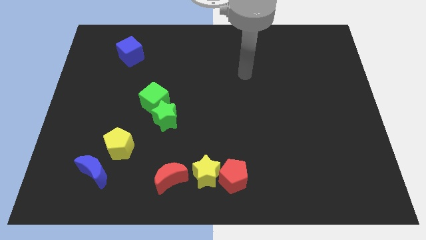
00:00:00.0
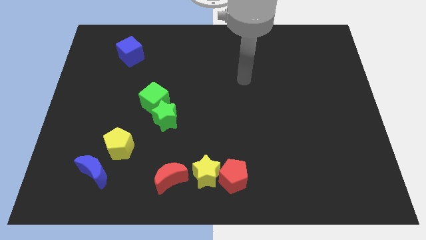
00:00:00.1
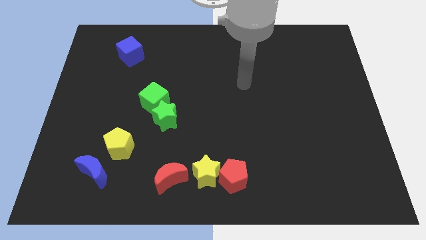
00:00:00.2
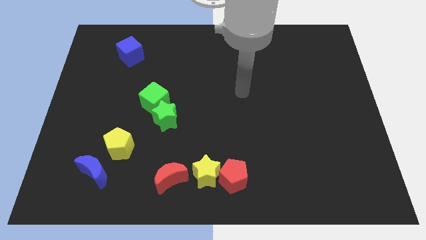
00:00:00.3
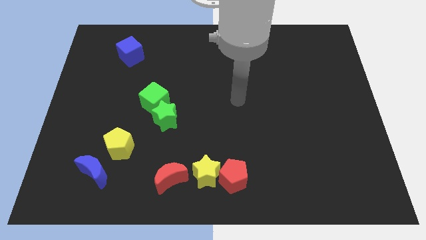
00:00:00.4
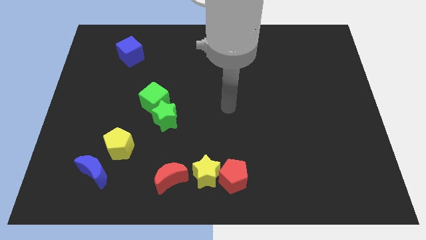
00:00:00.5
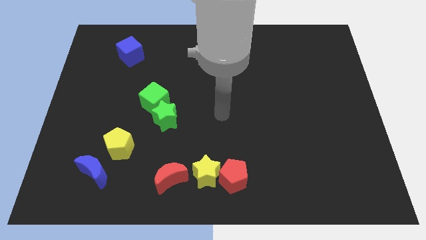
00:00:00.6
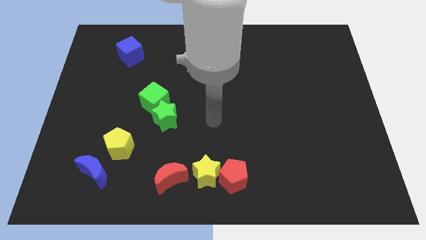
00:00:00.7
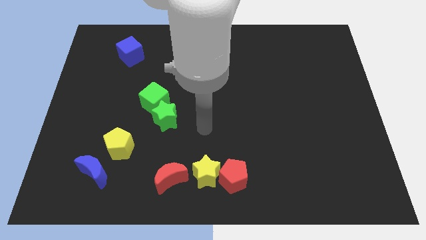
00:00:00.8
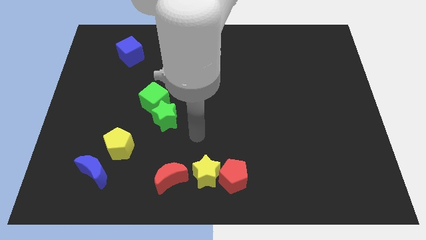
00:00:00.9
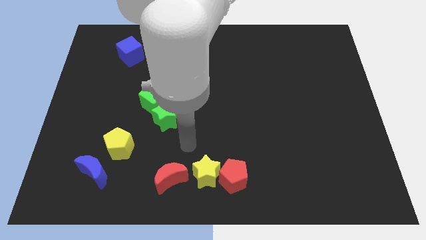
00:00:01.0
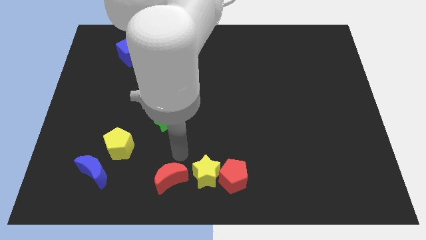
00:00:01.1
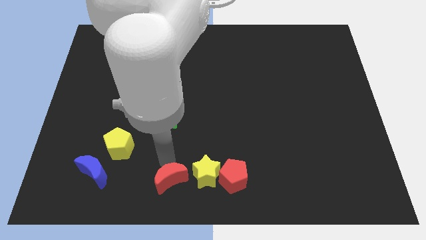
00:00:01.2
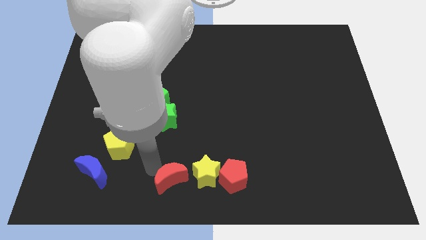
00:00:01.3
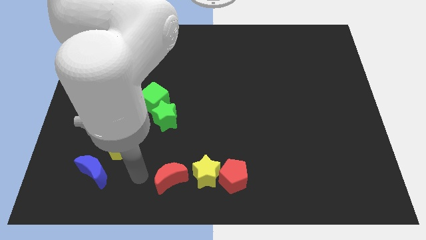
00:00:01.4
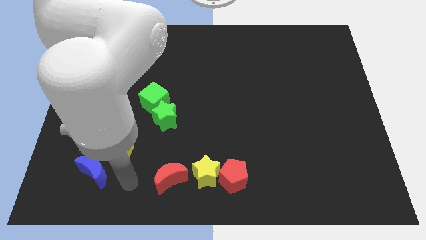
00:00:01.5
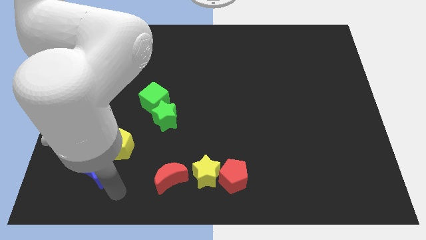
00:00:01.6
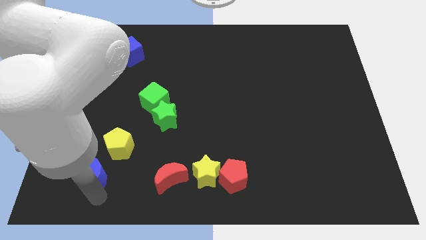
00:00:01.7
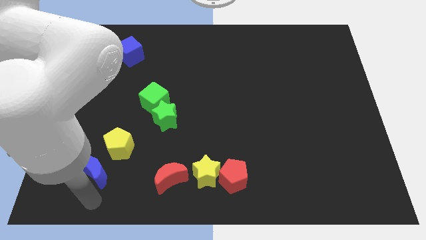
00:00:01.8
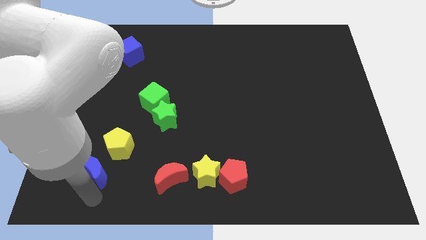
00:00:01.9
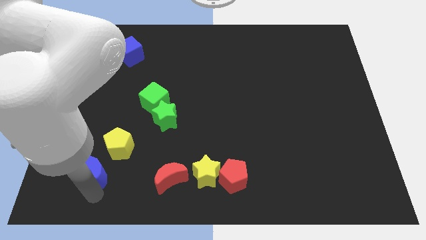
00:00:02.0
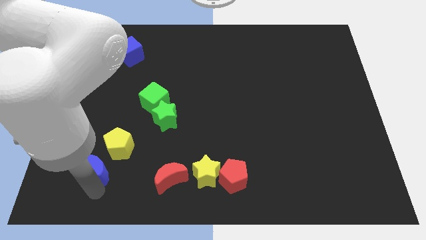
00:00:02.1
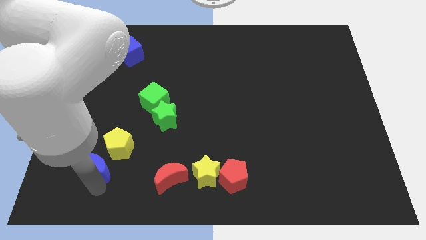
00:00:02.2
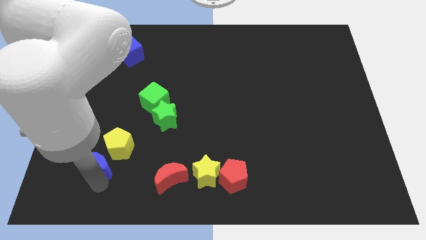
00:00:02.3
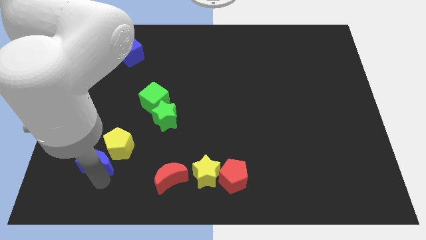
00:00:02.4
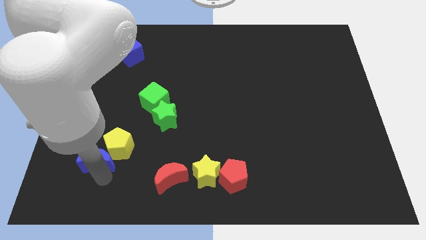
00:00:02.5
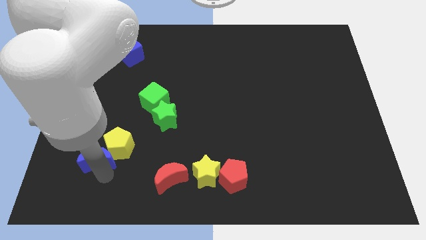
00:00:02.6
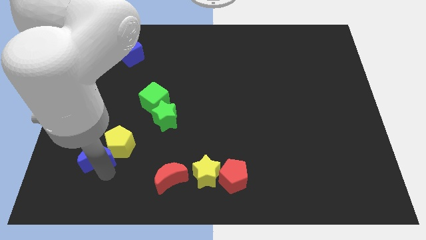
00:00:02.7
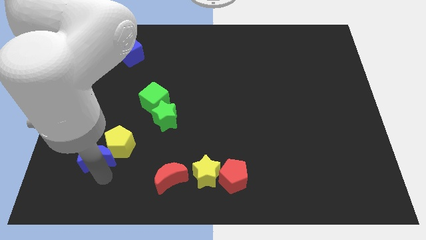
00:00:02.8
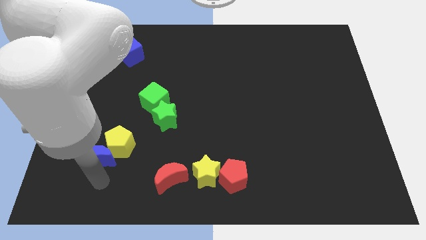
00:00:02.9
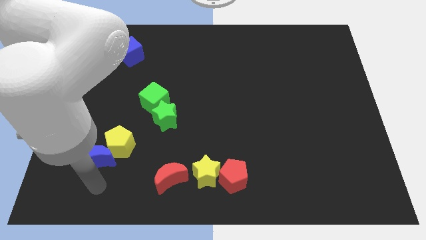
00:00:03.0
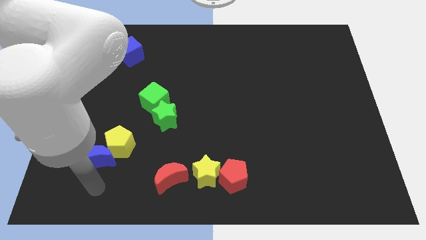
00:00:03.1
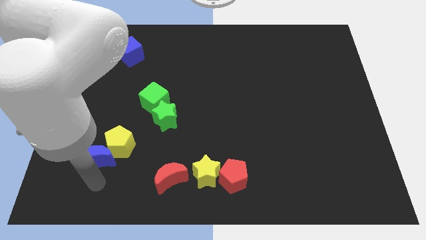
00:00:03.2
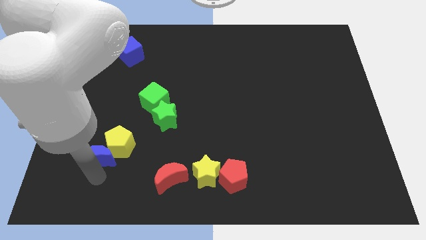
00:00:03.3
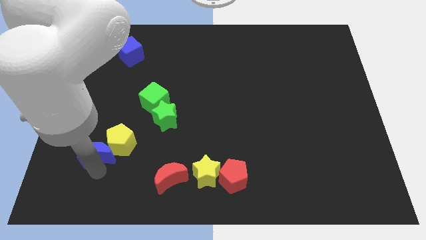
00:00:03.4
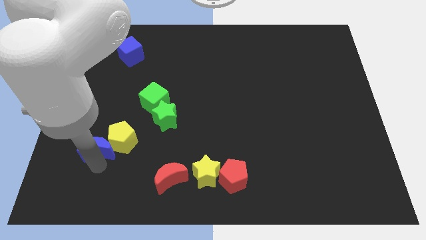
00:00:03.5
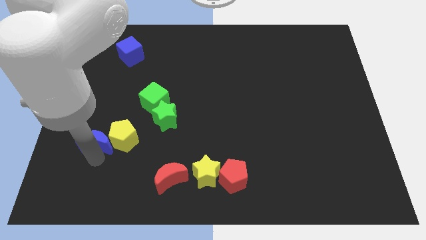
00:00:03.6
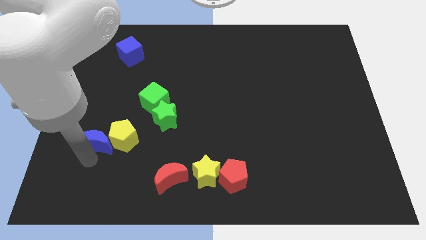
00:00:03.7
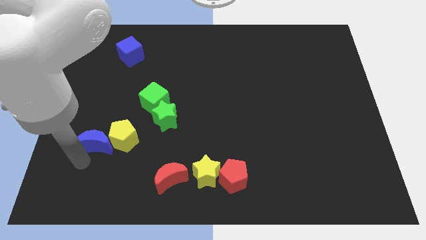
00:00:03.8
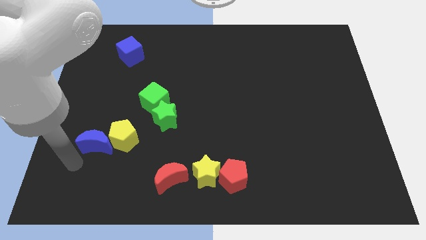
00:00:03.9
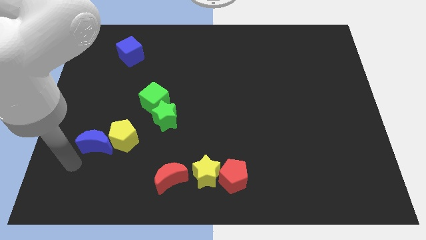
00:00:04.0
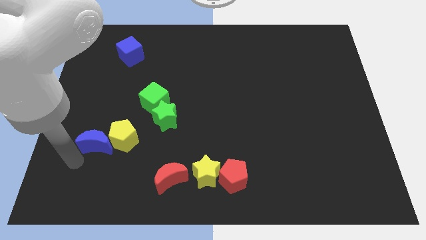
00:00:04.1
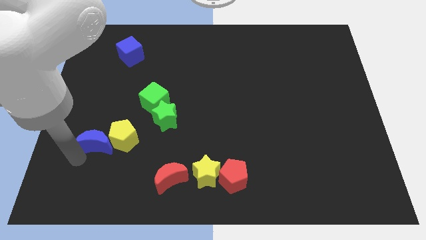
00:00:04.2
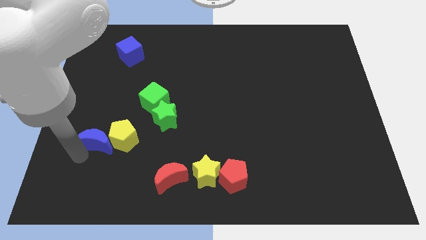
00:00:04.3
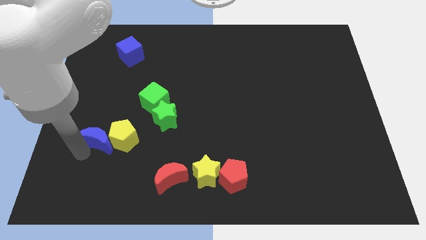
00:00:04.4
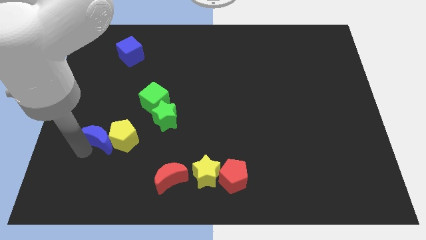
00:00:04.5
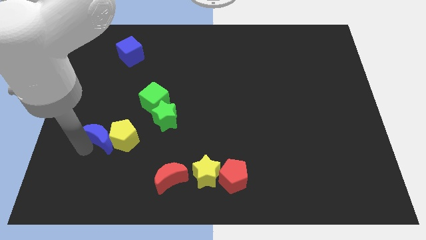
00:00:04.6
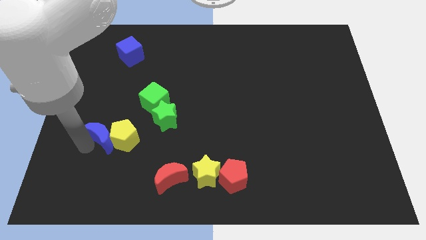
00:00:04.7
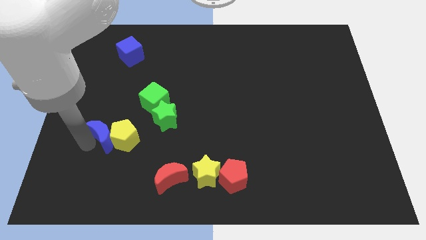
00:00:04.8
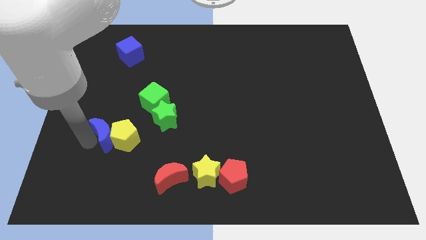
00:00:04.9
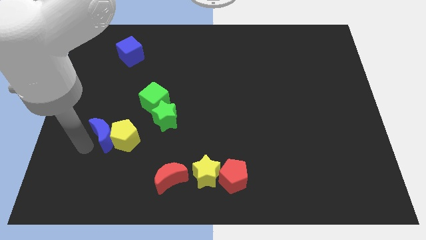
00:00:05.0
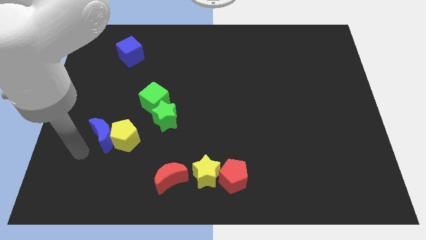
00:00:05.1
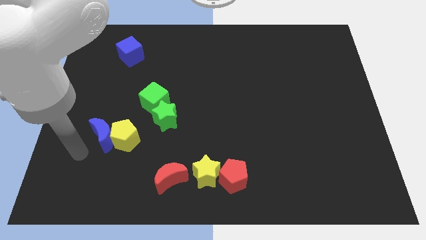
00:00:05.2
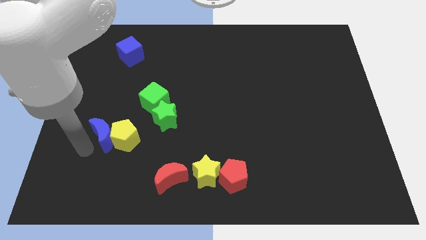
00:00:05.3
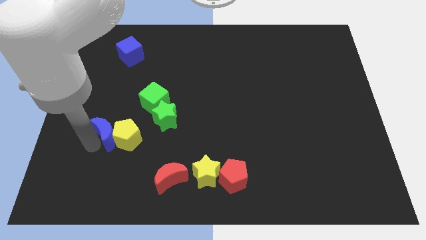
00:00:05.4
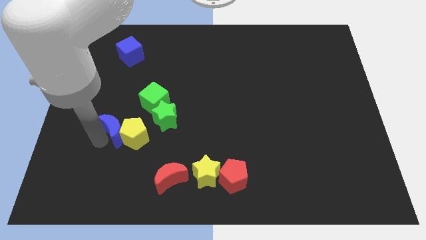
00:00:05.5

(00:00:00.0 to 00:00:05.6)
push the blue moon to the bottom left of the green cube

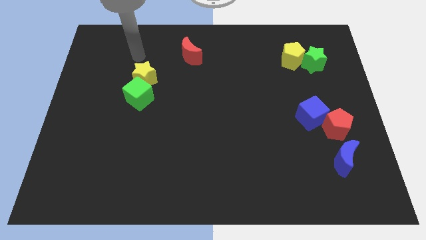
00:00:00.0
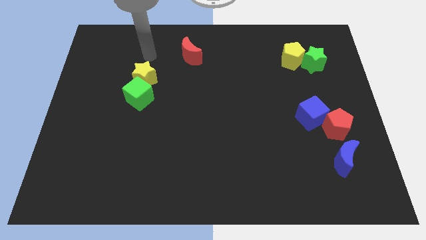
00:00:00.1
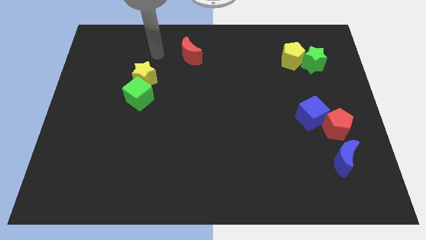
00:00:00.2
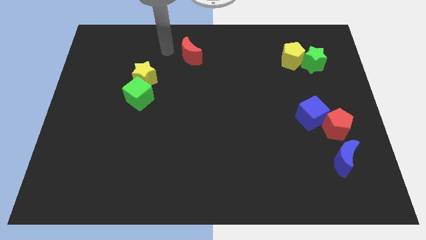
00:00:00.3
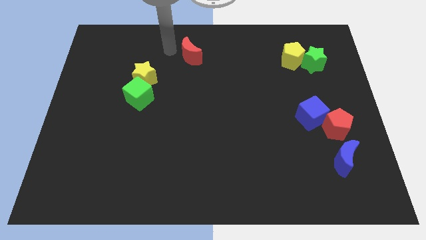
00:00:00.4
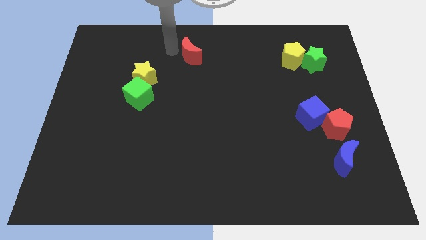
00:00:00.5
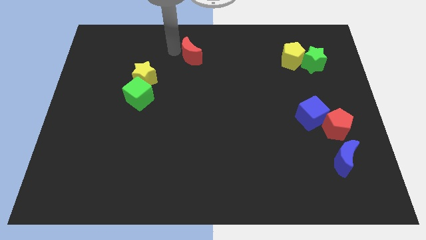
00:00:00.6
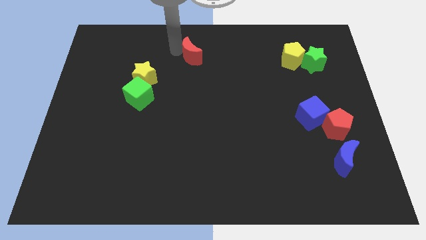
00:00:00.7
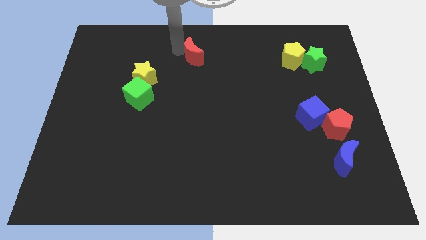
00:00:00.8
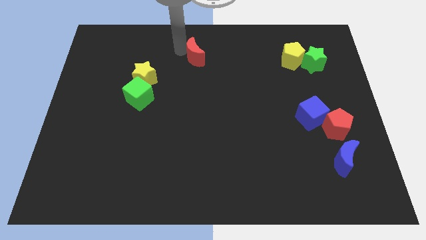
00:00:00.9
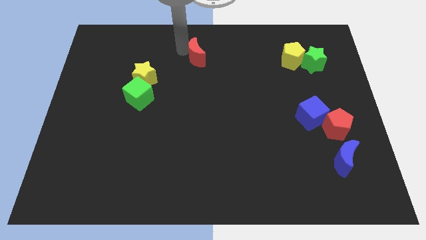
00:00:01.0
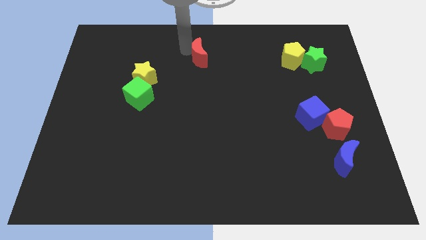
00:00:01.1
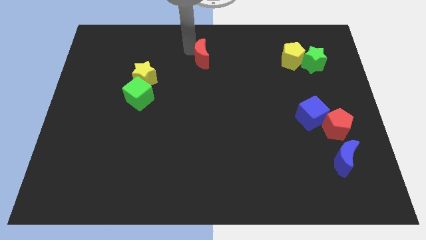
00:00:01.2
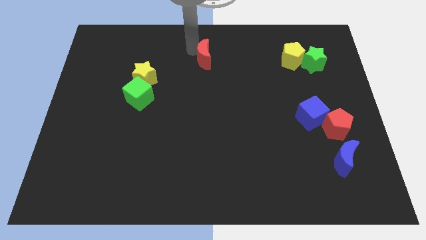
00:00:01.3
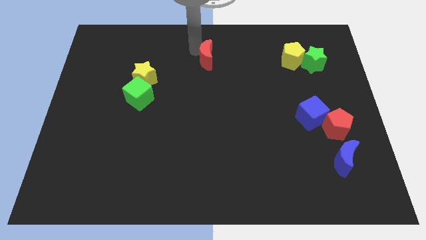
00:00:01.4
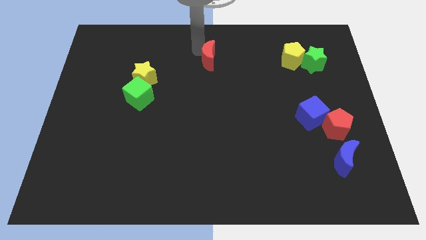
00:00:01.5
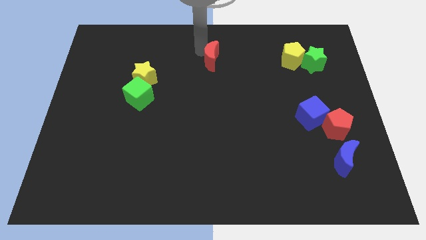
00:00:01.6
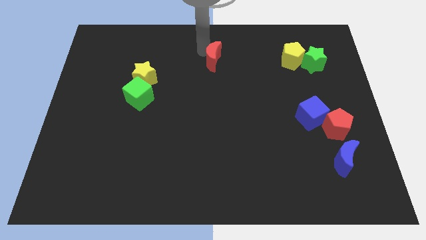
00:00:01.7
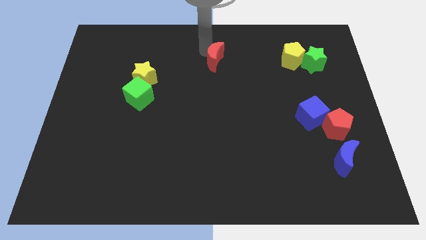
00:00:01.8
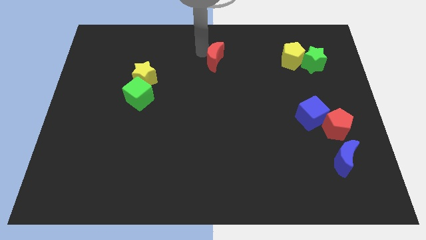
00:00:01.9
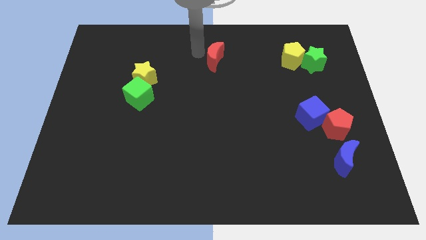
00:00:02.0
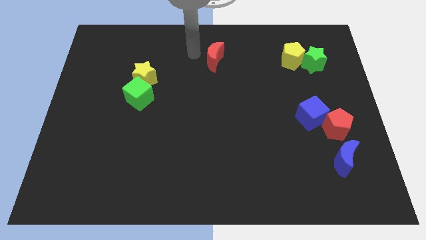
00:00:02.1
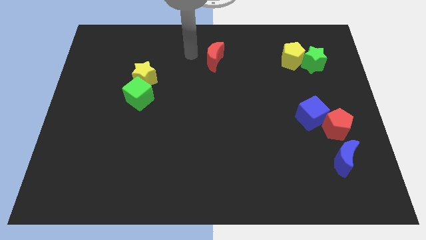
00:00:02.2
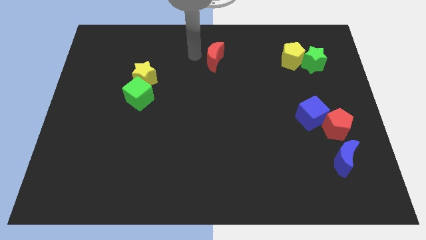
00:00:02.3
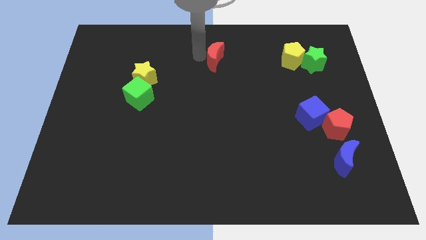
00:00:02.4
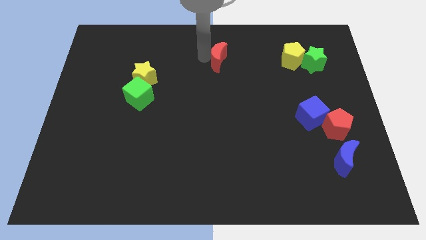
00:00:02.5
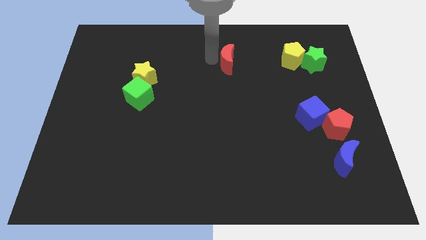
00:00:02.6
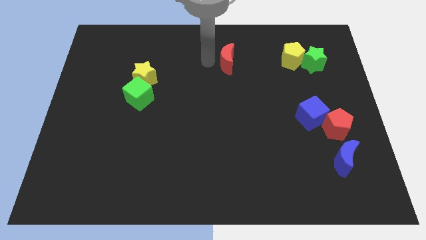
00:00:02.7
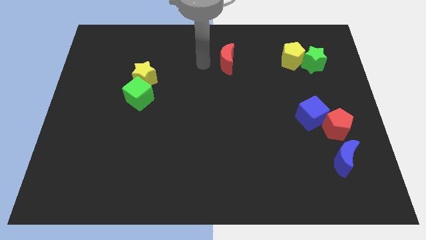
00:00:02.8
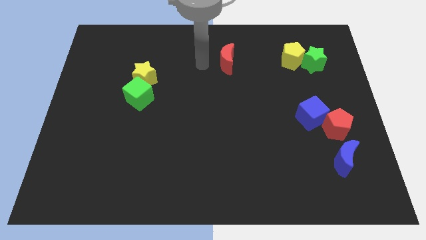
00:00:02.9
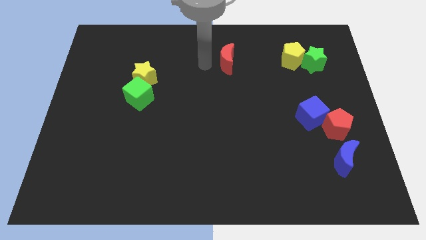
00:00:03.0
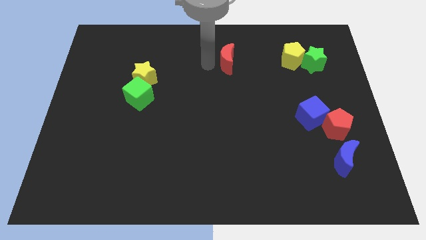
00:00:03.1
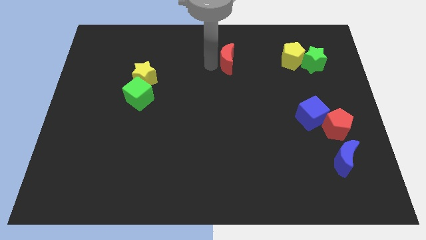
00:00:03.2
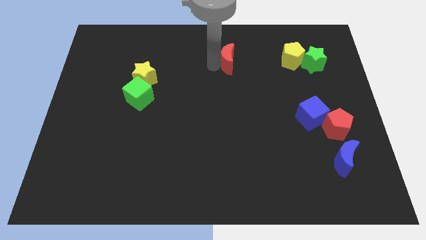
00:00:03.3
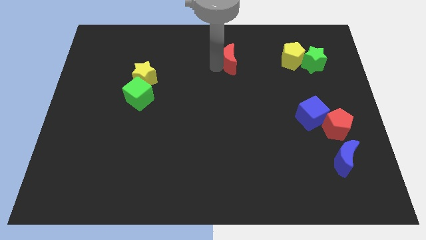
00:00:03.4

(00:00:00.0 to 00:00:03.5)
put the red moon just left of the yellow pentagon
